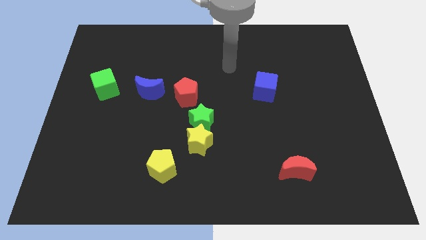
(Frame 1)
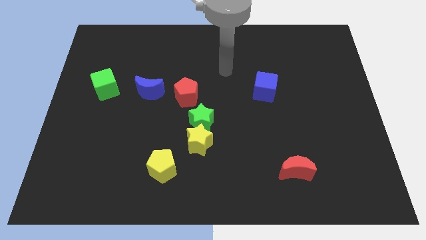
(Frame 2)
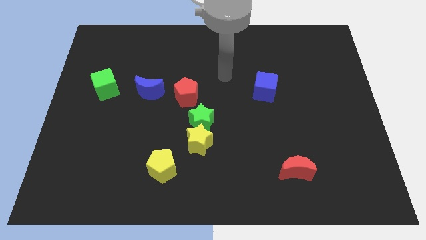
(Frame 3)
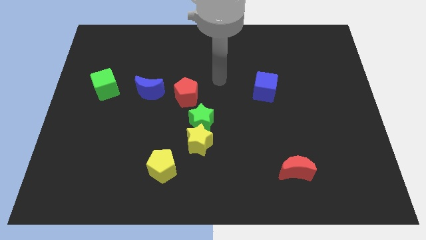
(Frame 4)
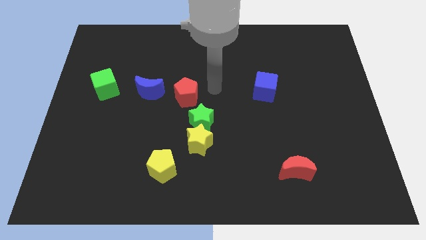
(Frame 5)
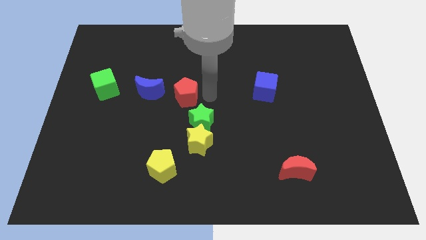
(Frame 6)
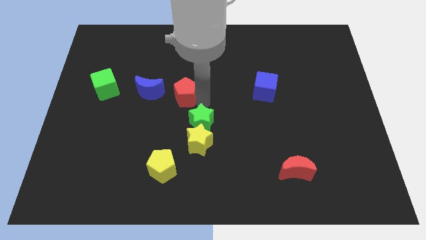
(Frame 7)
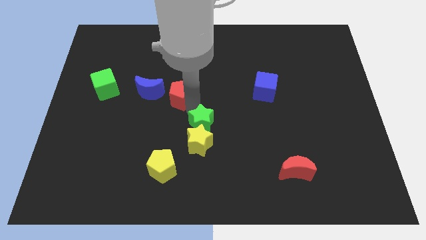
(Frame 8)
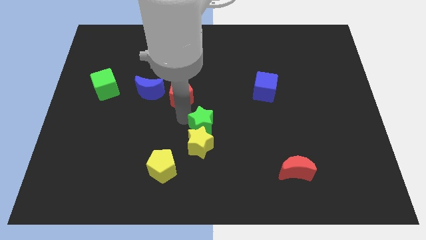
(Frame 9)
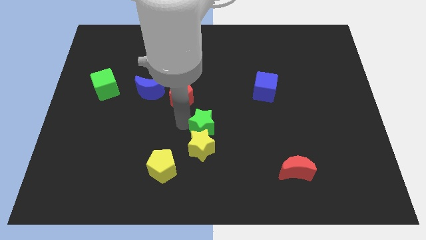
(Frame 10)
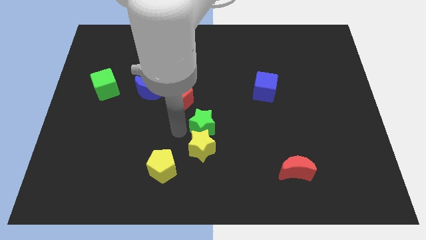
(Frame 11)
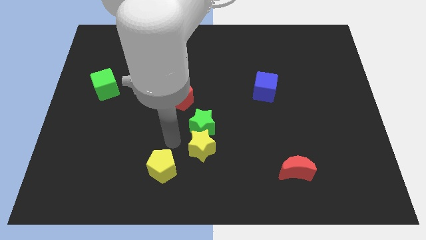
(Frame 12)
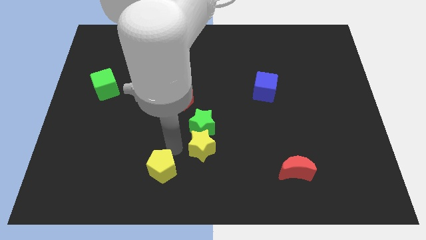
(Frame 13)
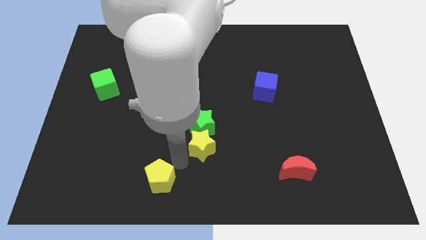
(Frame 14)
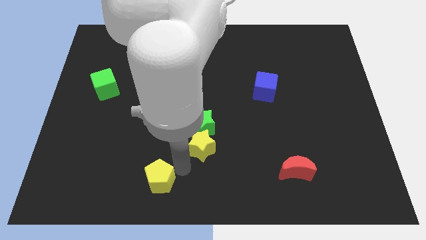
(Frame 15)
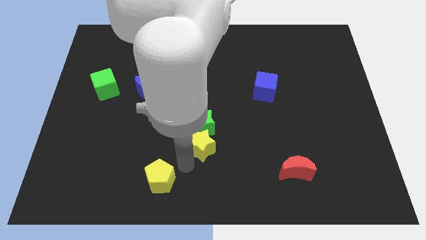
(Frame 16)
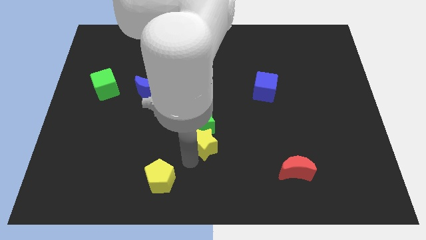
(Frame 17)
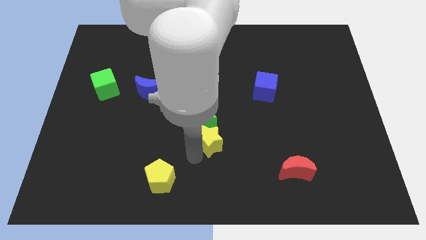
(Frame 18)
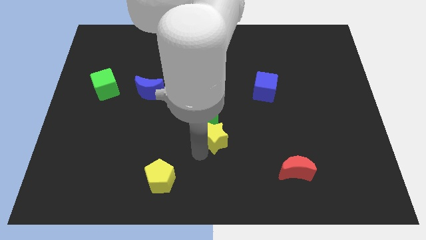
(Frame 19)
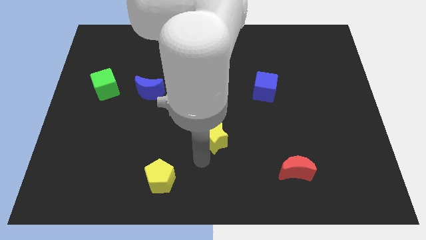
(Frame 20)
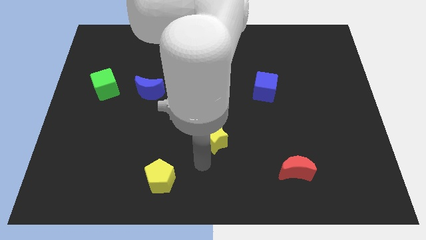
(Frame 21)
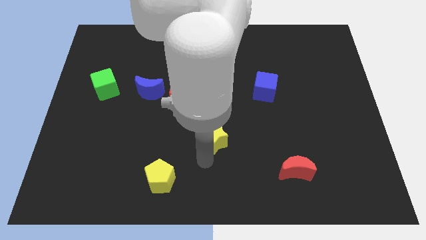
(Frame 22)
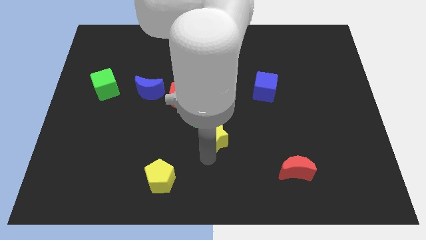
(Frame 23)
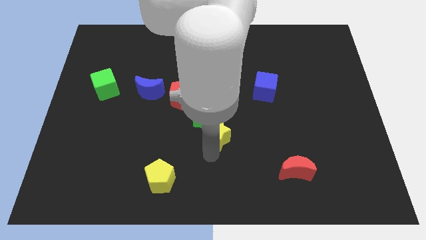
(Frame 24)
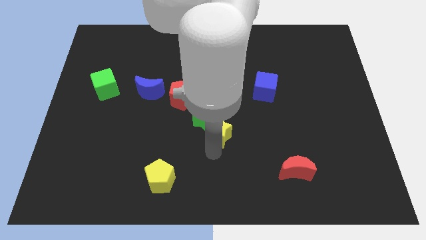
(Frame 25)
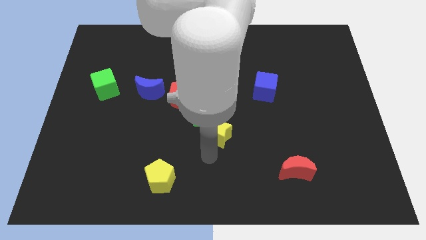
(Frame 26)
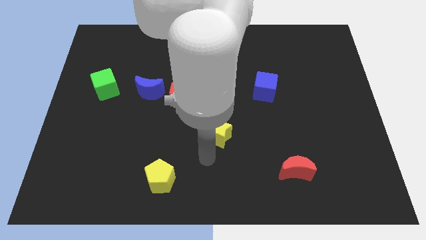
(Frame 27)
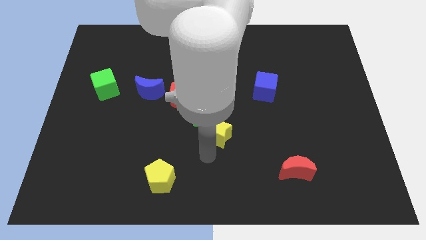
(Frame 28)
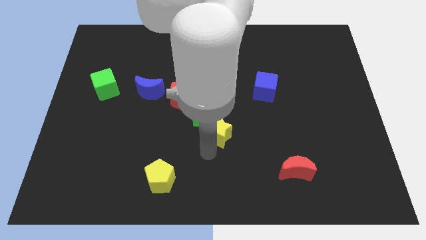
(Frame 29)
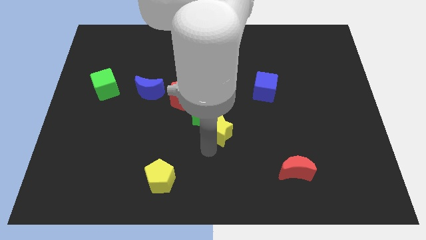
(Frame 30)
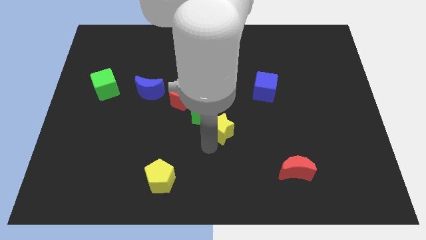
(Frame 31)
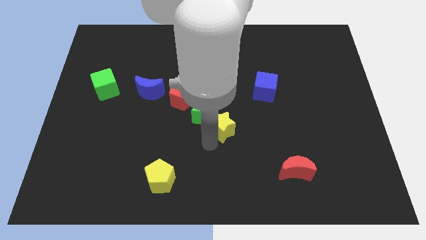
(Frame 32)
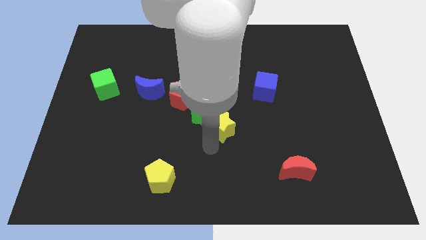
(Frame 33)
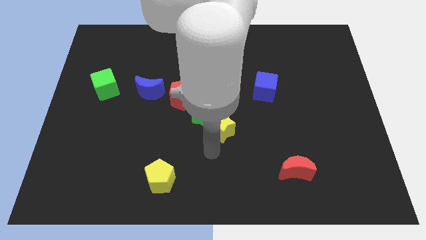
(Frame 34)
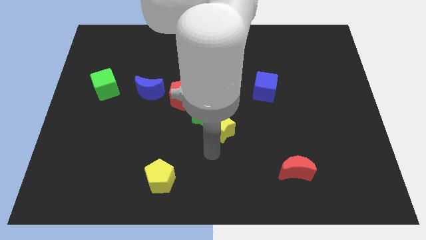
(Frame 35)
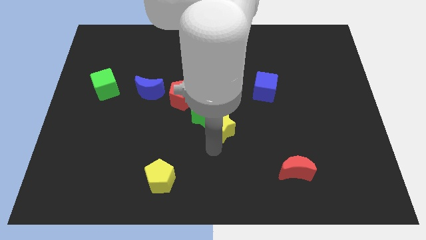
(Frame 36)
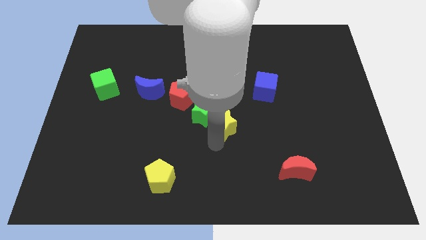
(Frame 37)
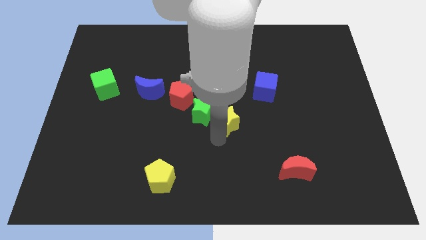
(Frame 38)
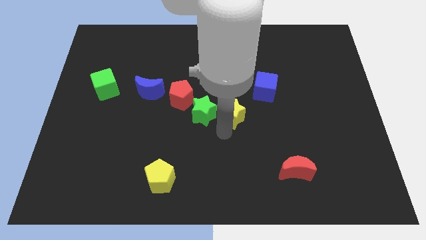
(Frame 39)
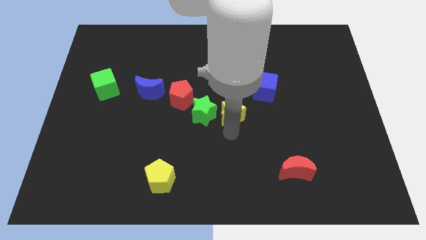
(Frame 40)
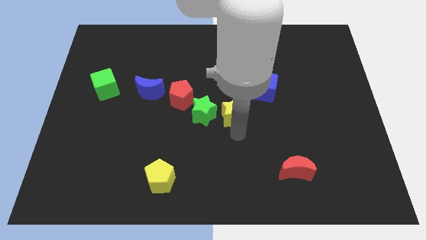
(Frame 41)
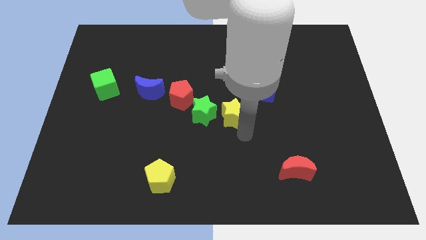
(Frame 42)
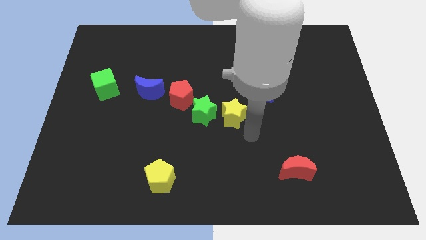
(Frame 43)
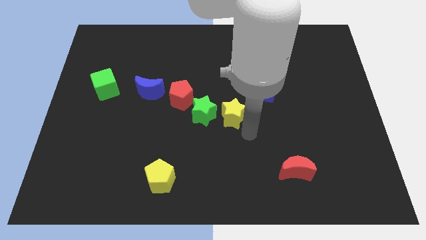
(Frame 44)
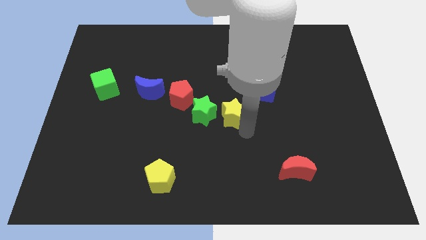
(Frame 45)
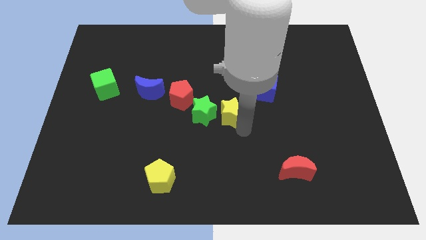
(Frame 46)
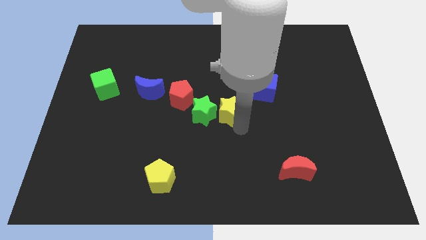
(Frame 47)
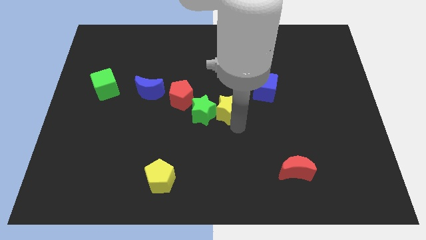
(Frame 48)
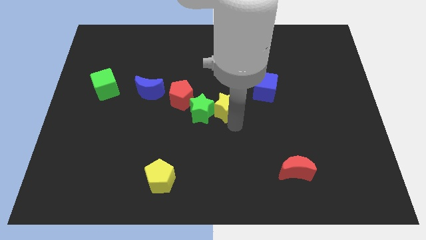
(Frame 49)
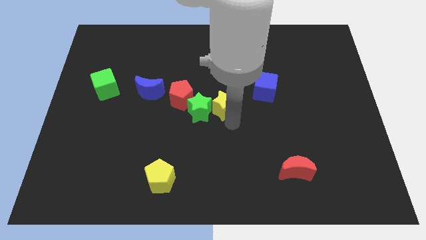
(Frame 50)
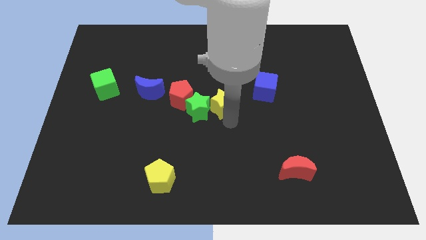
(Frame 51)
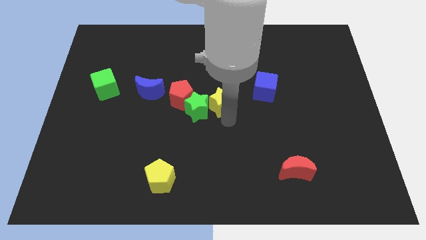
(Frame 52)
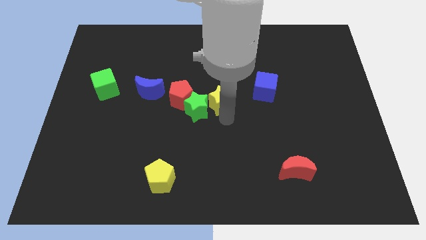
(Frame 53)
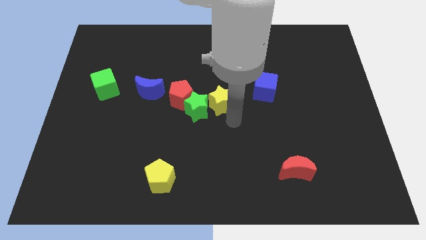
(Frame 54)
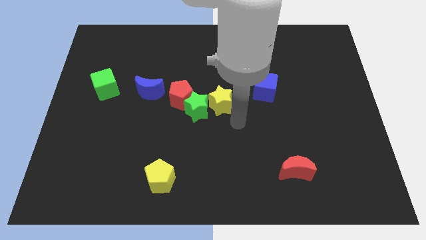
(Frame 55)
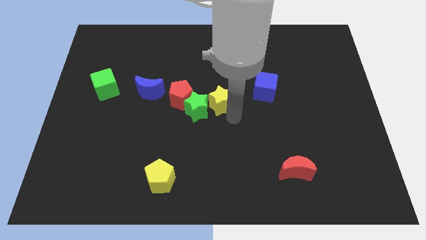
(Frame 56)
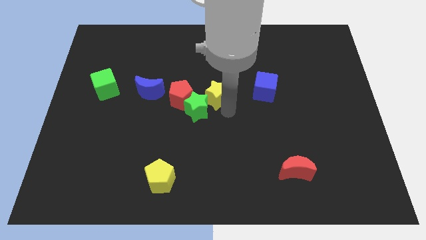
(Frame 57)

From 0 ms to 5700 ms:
push the yellow star to the top of the green star
